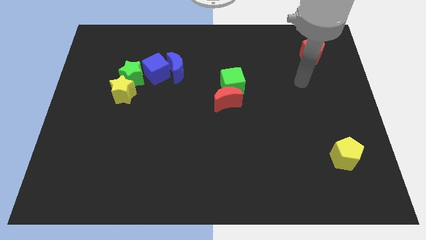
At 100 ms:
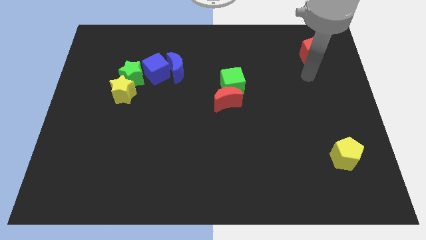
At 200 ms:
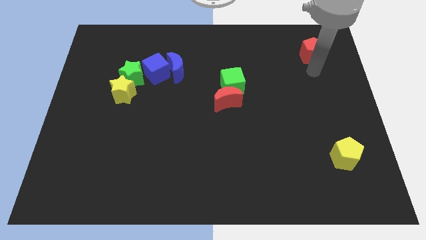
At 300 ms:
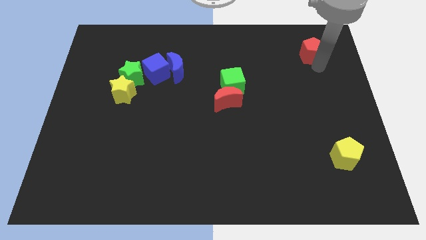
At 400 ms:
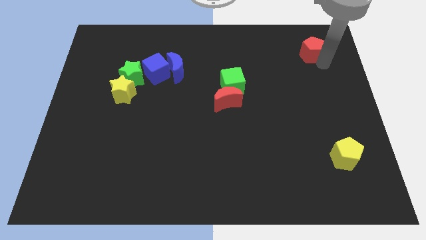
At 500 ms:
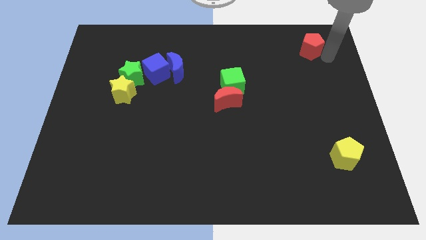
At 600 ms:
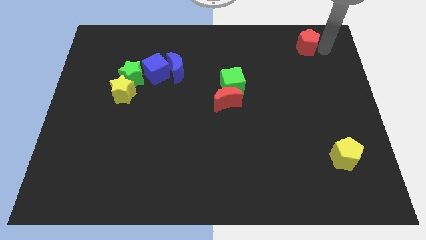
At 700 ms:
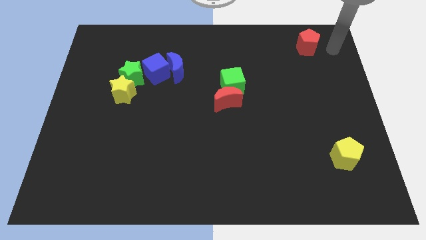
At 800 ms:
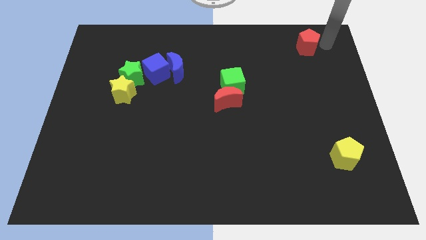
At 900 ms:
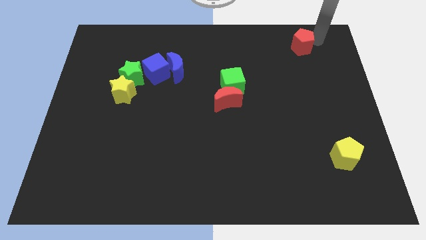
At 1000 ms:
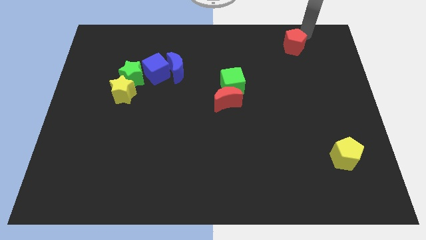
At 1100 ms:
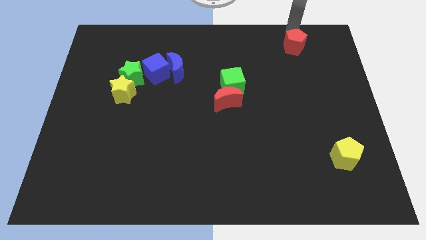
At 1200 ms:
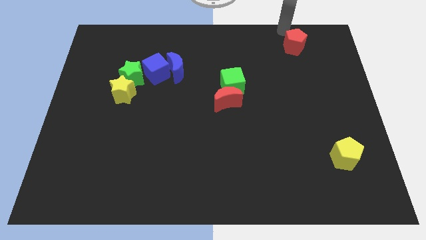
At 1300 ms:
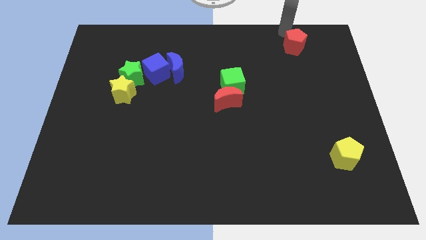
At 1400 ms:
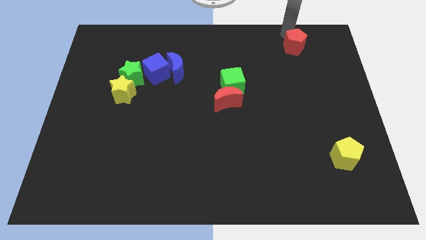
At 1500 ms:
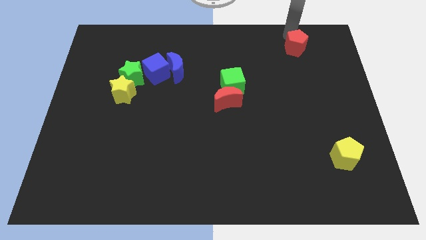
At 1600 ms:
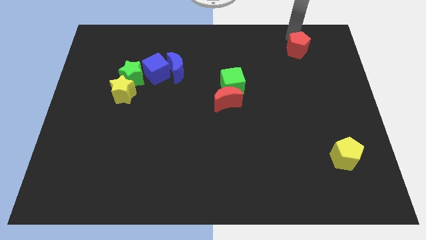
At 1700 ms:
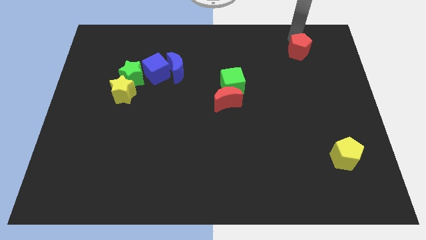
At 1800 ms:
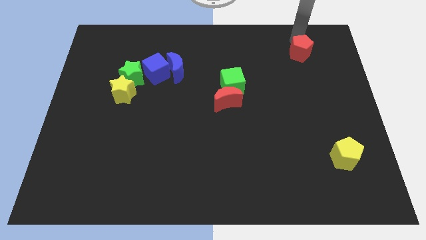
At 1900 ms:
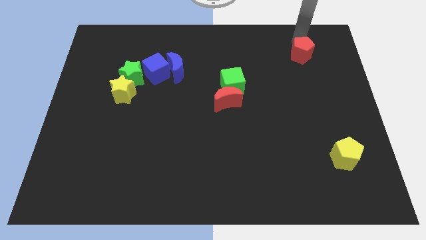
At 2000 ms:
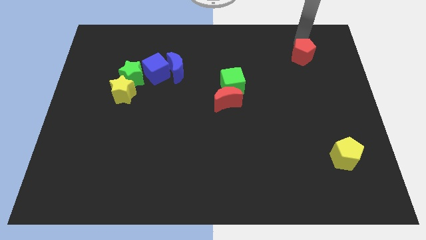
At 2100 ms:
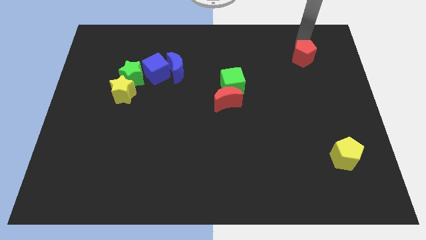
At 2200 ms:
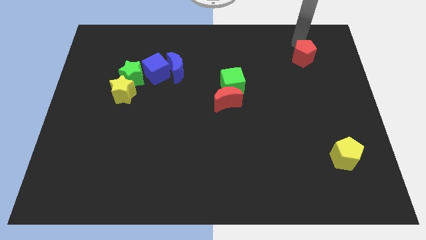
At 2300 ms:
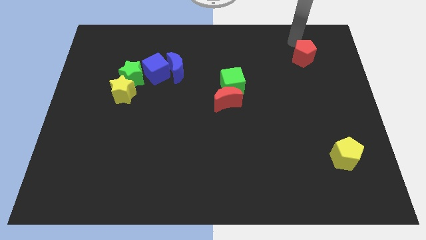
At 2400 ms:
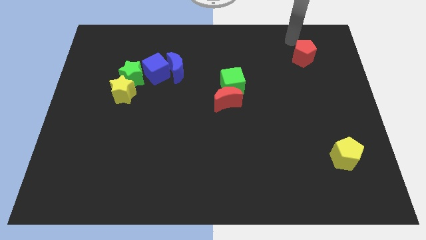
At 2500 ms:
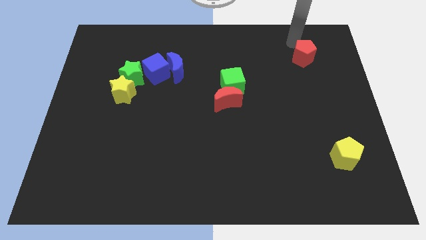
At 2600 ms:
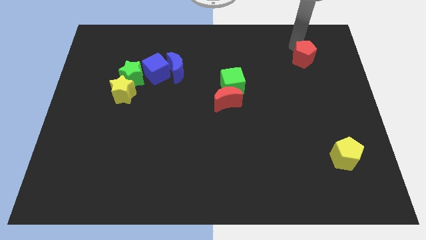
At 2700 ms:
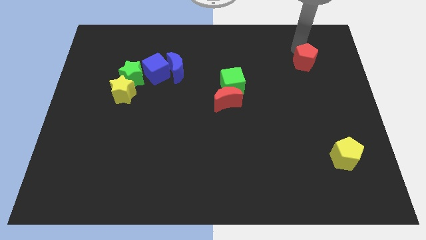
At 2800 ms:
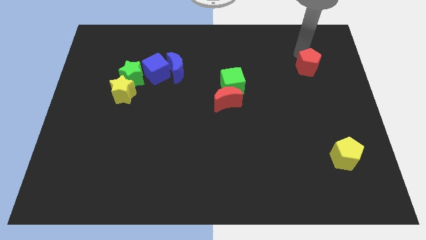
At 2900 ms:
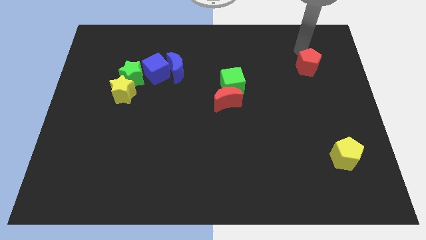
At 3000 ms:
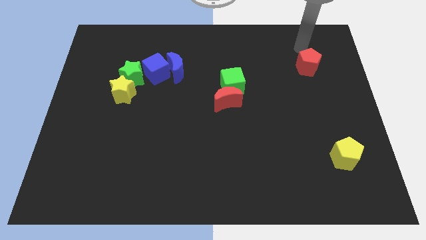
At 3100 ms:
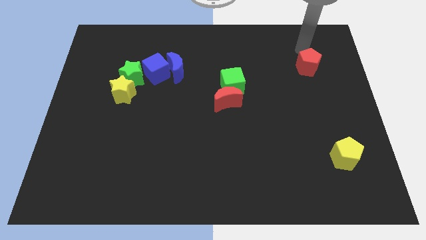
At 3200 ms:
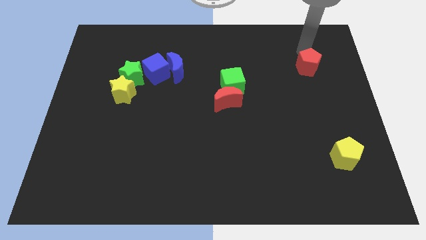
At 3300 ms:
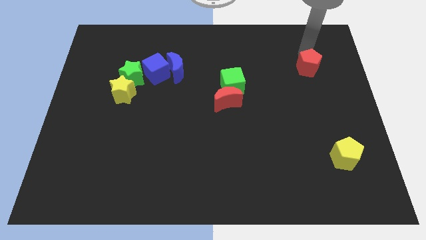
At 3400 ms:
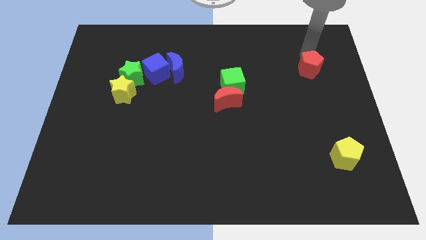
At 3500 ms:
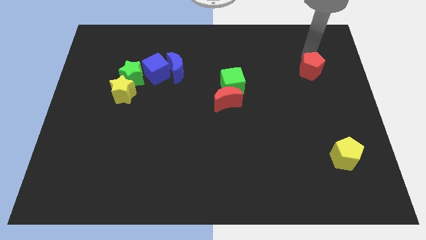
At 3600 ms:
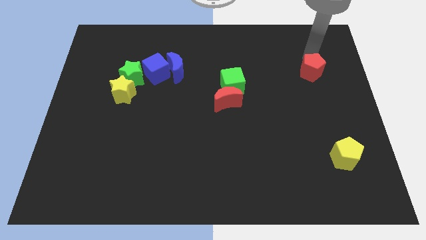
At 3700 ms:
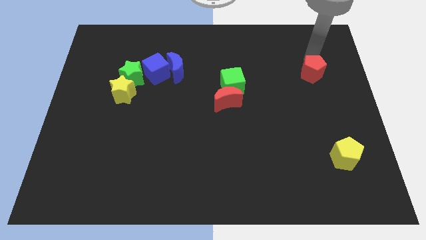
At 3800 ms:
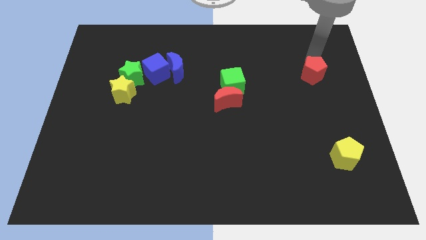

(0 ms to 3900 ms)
move the red pentagon downwards a bit

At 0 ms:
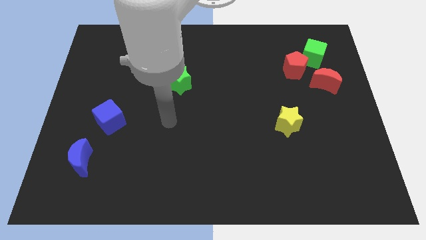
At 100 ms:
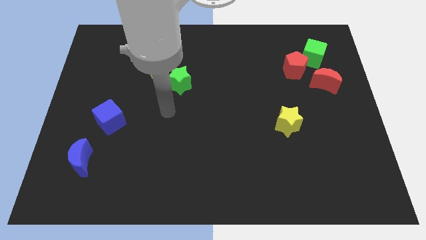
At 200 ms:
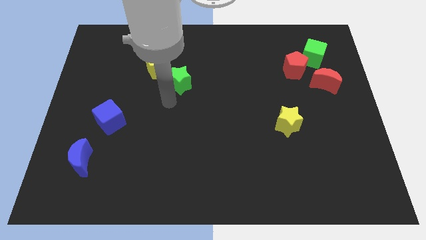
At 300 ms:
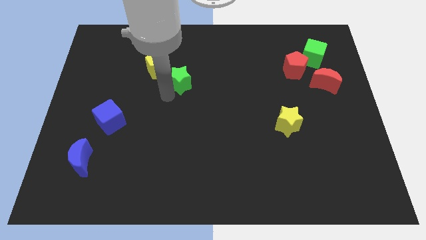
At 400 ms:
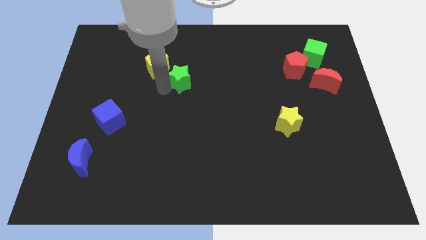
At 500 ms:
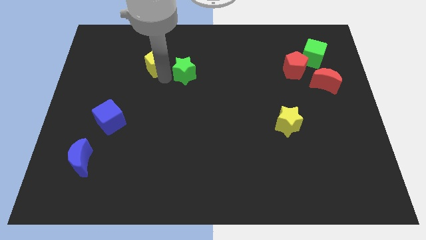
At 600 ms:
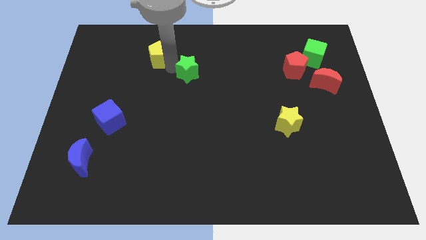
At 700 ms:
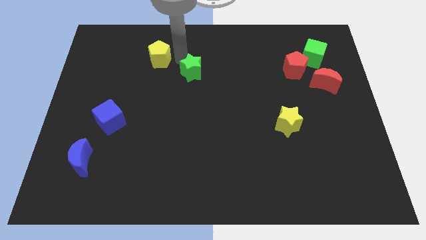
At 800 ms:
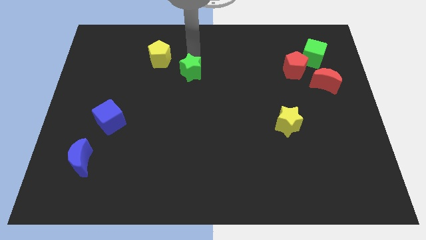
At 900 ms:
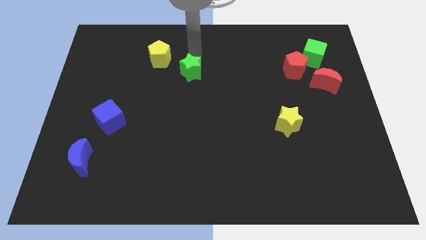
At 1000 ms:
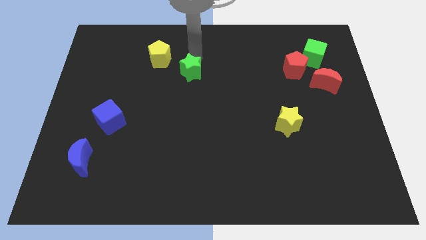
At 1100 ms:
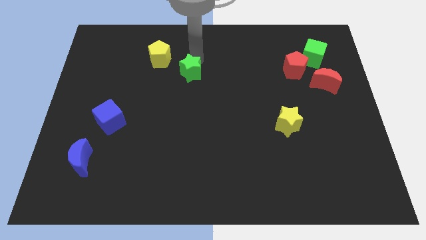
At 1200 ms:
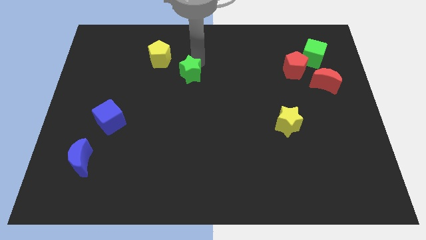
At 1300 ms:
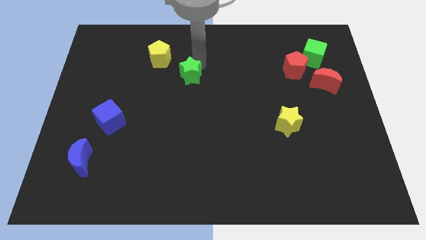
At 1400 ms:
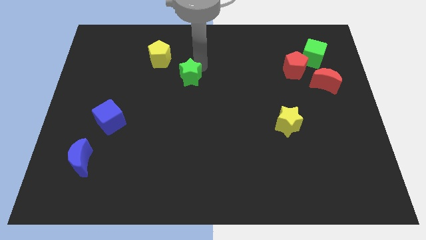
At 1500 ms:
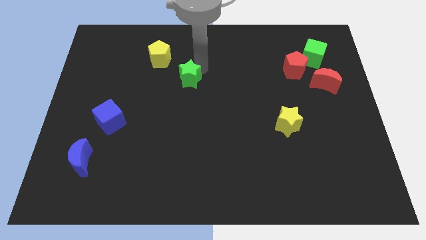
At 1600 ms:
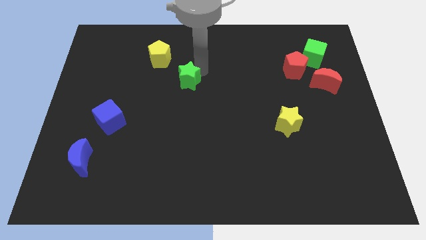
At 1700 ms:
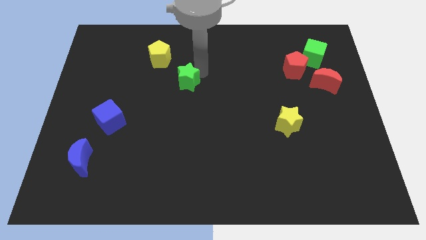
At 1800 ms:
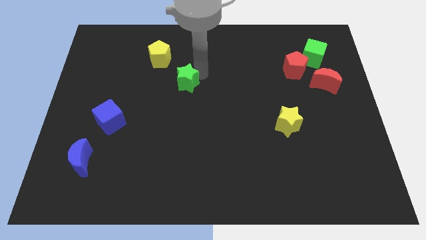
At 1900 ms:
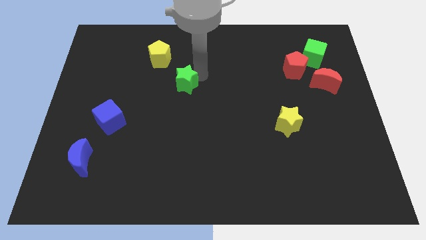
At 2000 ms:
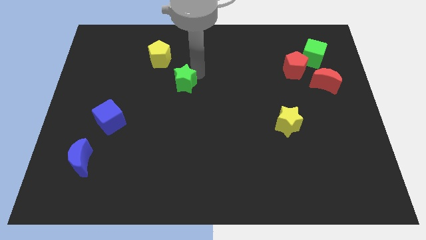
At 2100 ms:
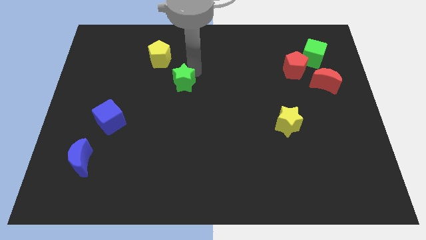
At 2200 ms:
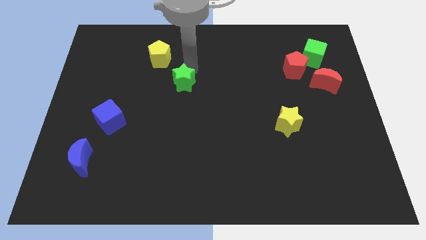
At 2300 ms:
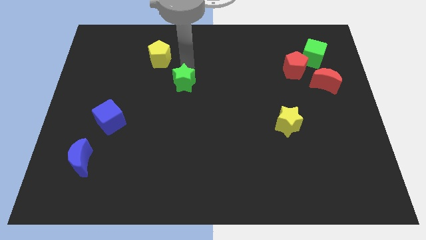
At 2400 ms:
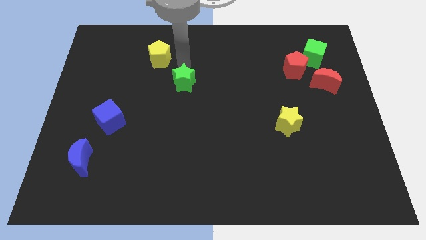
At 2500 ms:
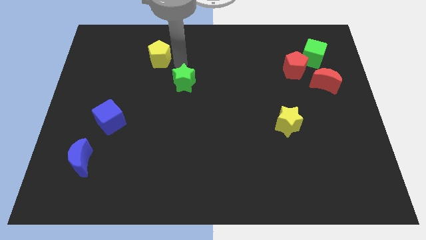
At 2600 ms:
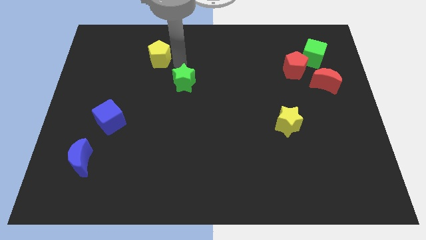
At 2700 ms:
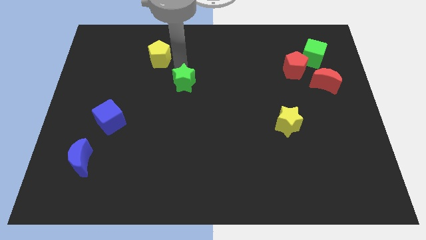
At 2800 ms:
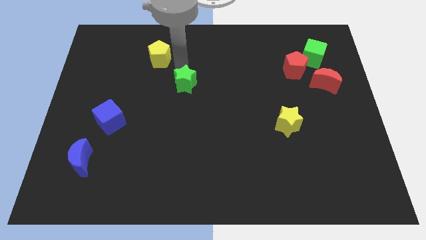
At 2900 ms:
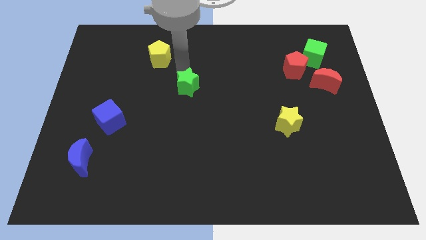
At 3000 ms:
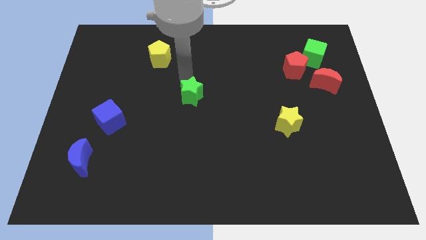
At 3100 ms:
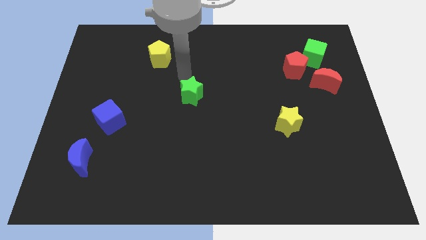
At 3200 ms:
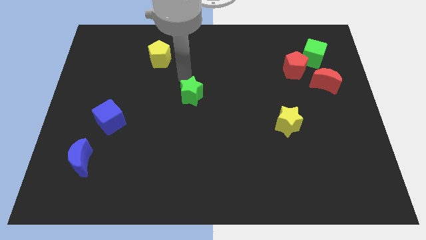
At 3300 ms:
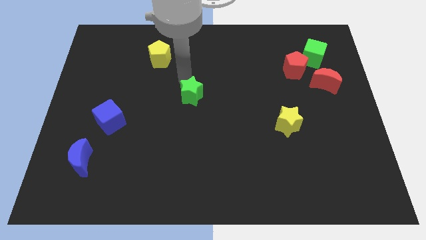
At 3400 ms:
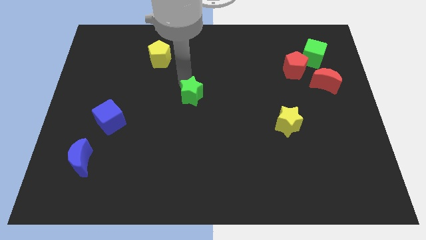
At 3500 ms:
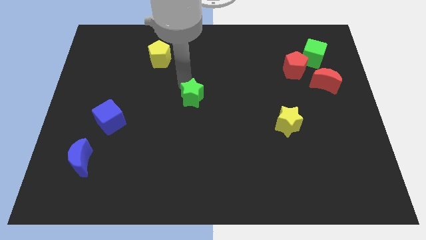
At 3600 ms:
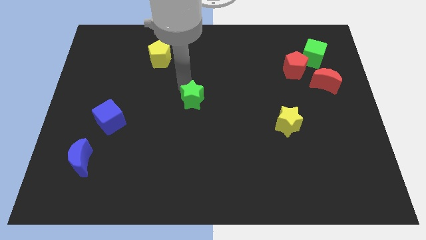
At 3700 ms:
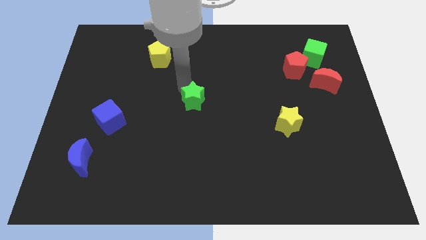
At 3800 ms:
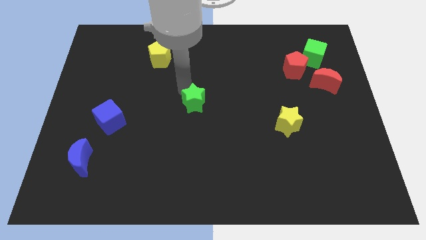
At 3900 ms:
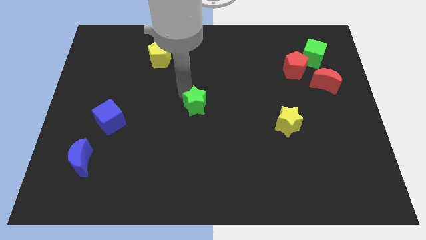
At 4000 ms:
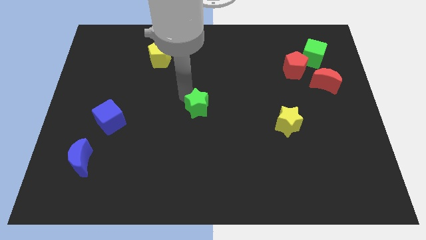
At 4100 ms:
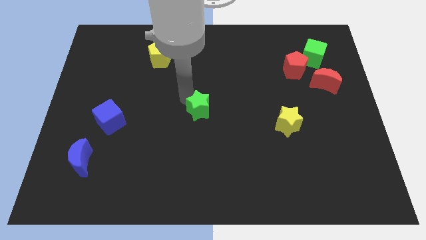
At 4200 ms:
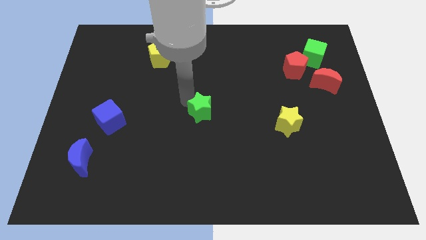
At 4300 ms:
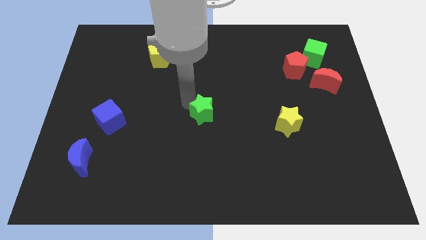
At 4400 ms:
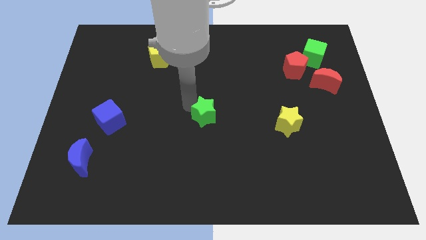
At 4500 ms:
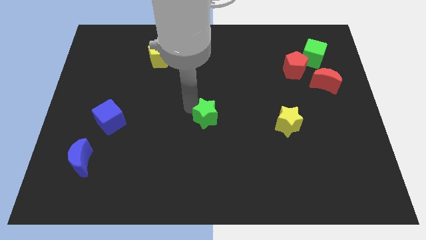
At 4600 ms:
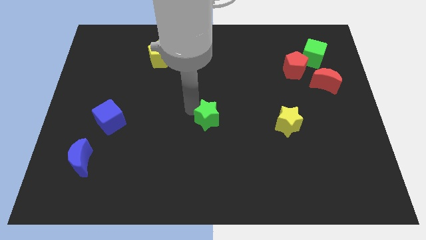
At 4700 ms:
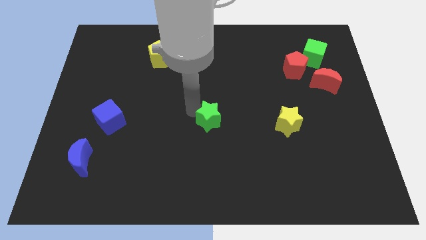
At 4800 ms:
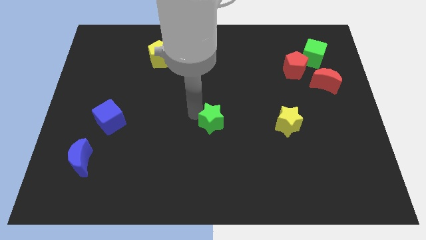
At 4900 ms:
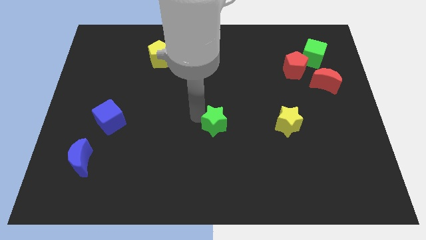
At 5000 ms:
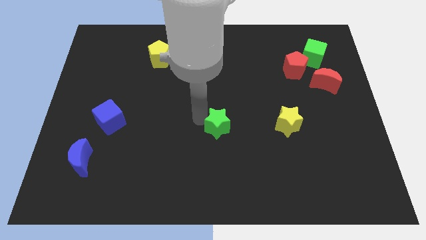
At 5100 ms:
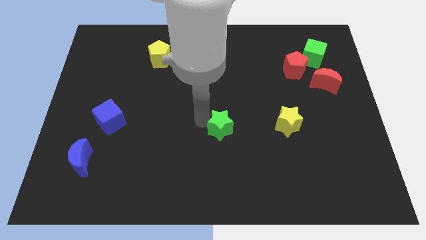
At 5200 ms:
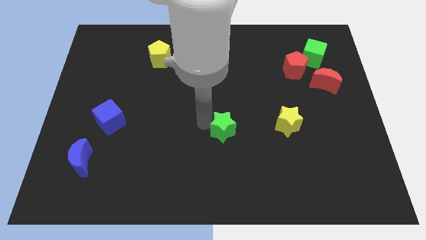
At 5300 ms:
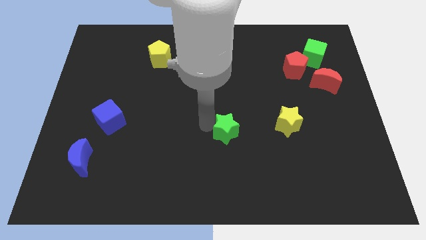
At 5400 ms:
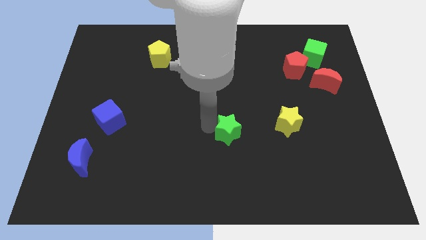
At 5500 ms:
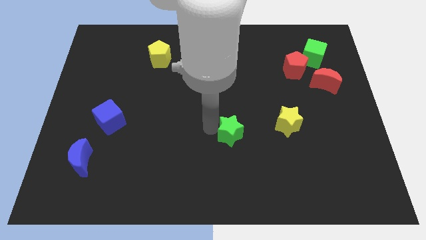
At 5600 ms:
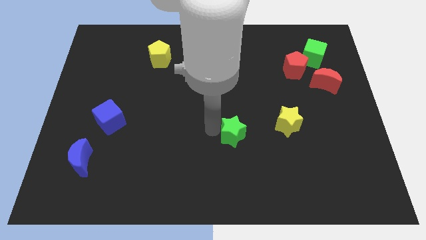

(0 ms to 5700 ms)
slide the green star down and then right
